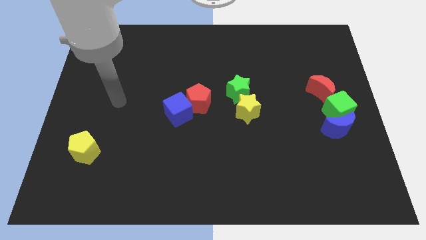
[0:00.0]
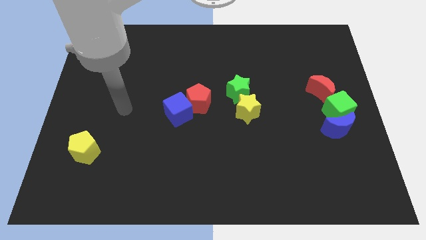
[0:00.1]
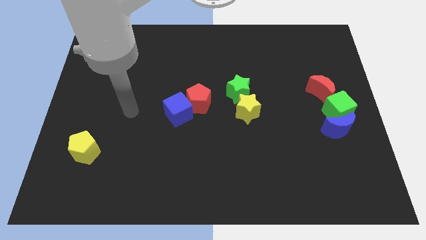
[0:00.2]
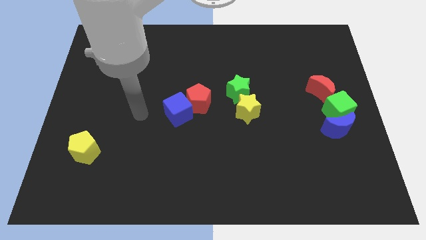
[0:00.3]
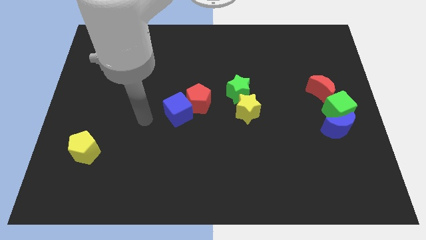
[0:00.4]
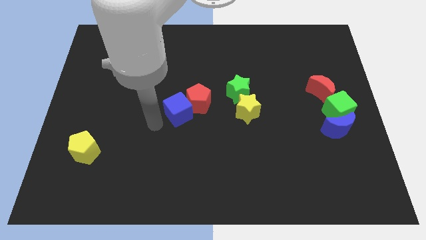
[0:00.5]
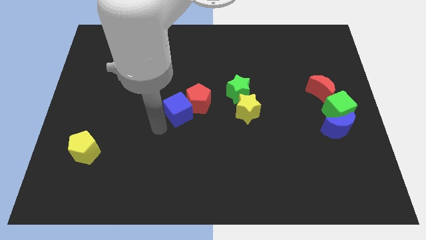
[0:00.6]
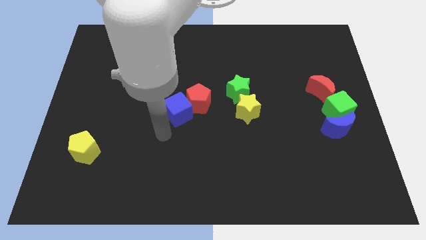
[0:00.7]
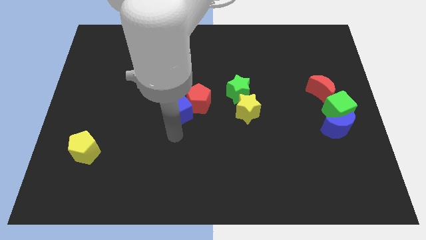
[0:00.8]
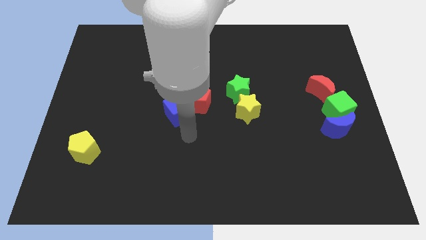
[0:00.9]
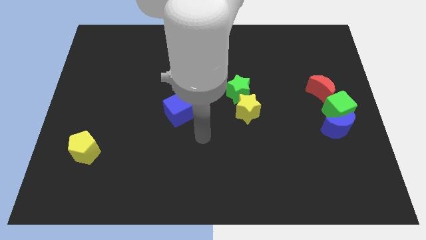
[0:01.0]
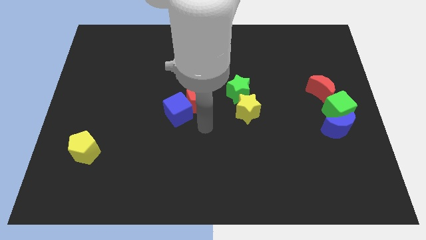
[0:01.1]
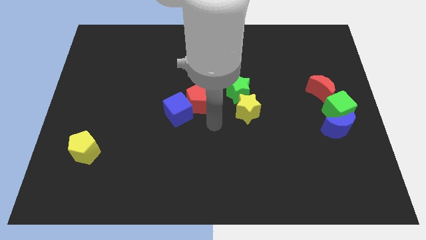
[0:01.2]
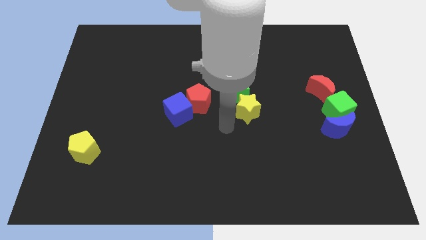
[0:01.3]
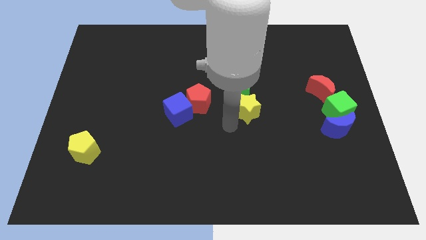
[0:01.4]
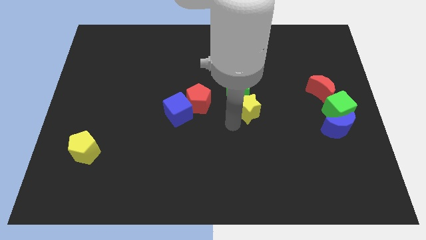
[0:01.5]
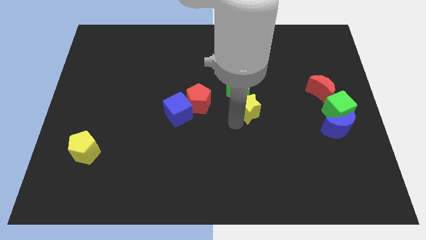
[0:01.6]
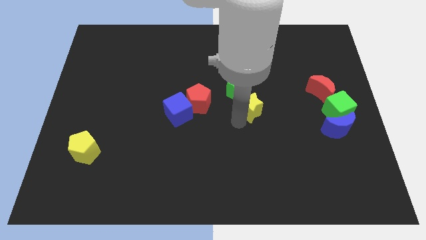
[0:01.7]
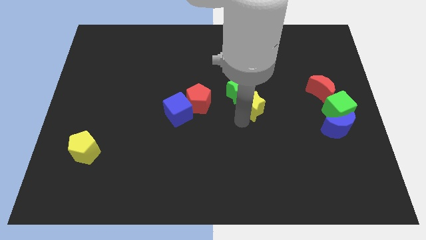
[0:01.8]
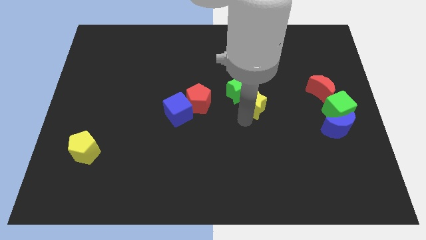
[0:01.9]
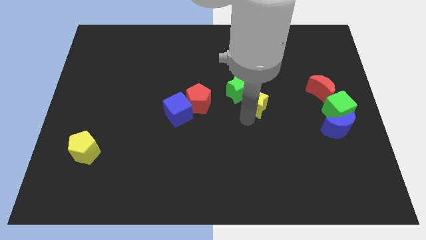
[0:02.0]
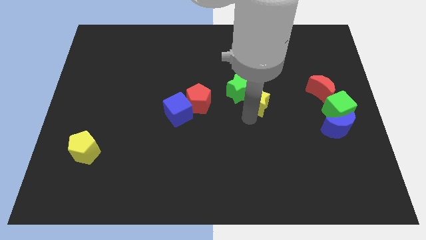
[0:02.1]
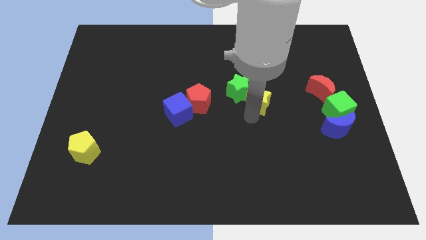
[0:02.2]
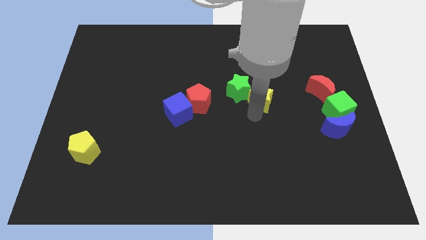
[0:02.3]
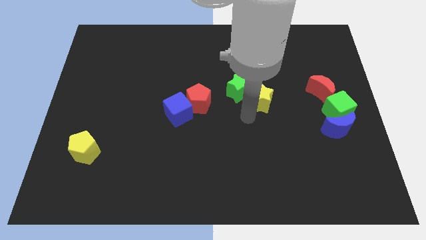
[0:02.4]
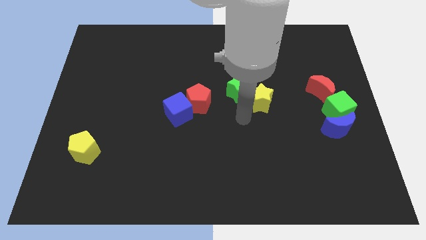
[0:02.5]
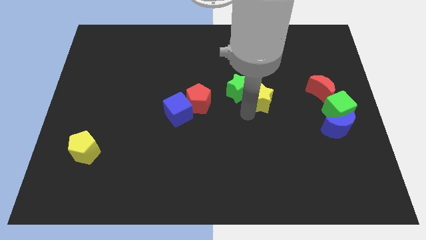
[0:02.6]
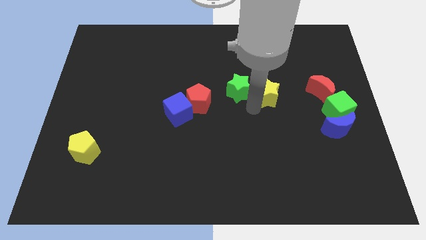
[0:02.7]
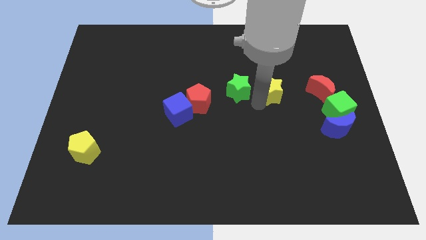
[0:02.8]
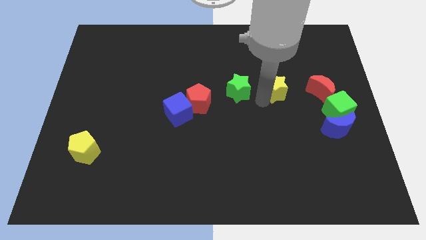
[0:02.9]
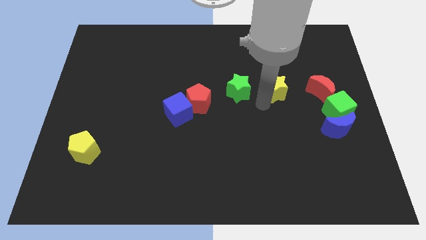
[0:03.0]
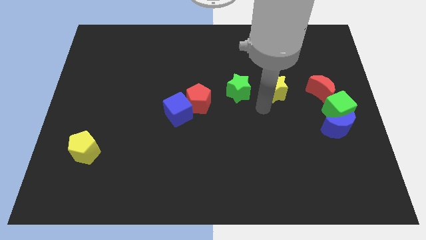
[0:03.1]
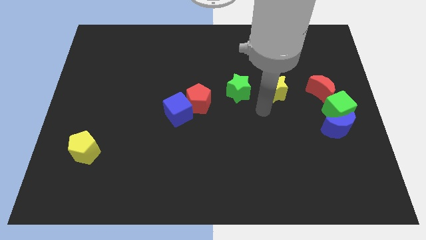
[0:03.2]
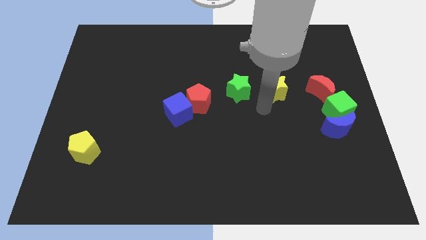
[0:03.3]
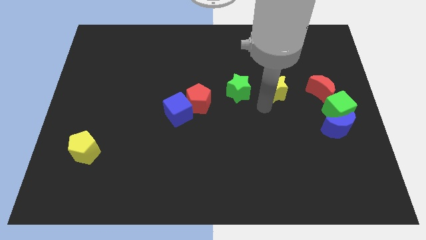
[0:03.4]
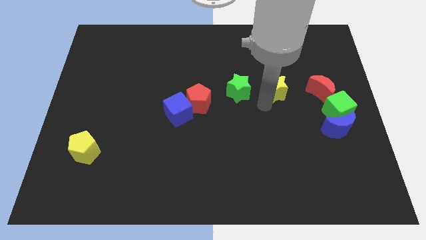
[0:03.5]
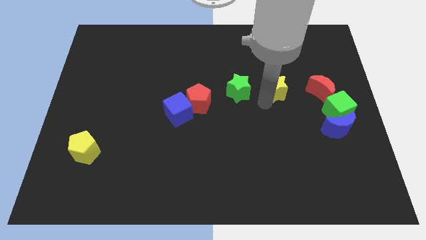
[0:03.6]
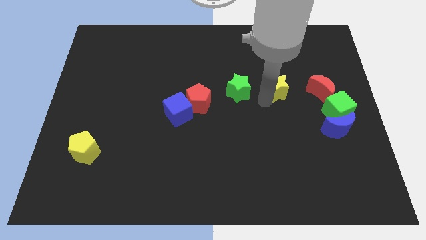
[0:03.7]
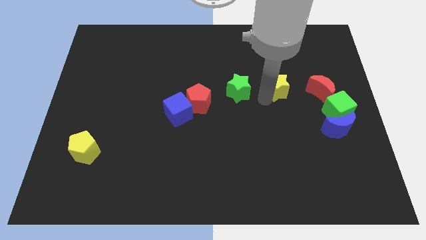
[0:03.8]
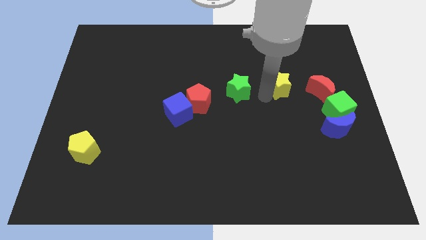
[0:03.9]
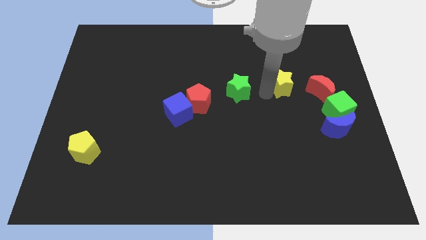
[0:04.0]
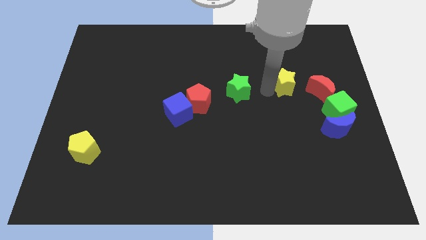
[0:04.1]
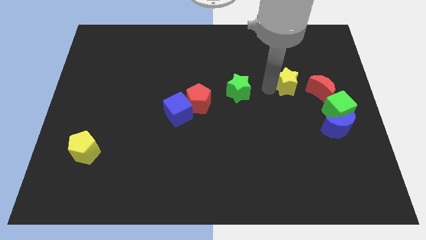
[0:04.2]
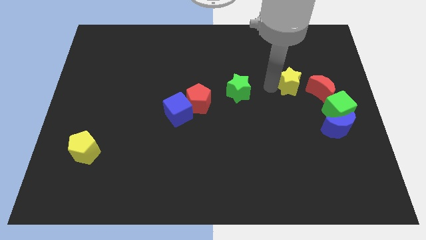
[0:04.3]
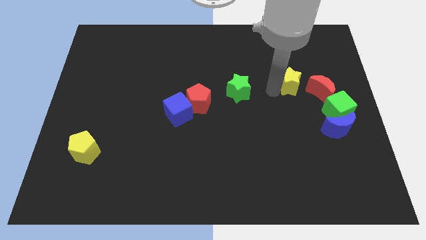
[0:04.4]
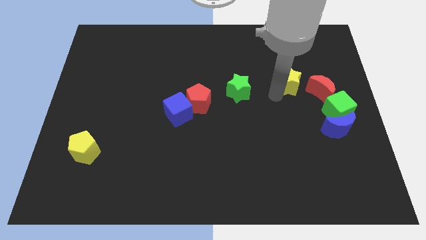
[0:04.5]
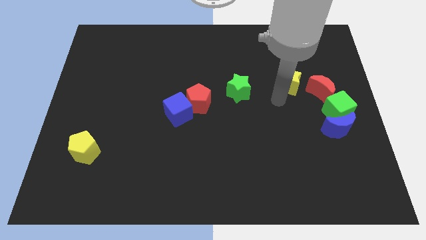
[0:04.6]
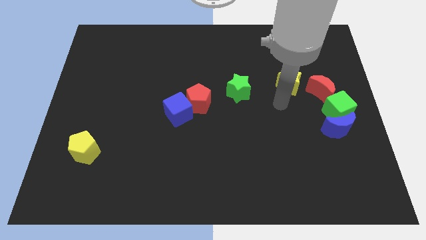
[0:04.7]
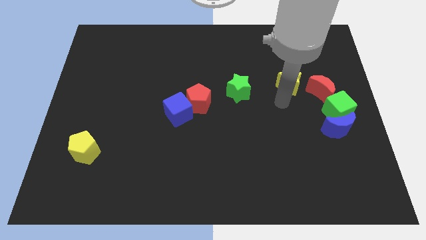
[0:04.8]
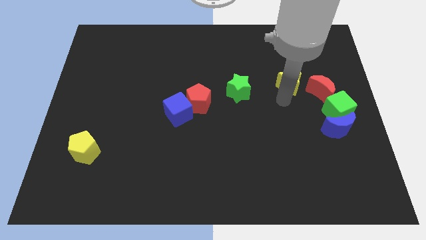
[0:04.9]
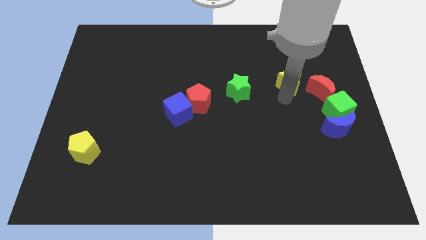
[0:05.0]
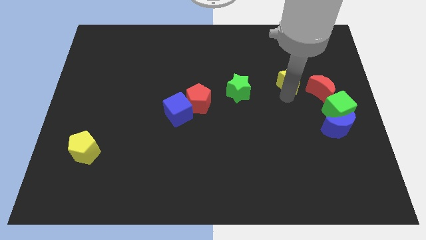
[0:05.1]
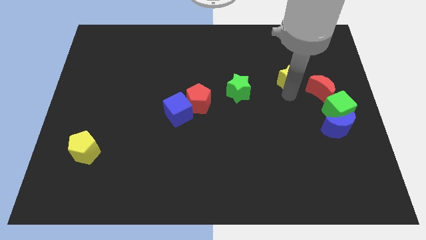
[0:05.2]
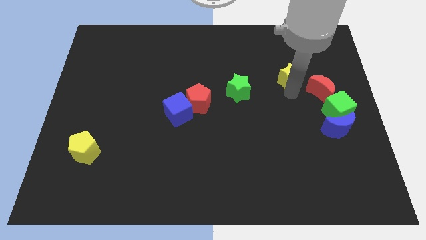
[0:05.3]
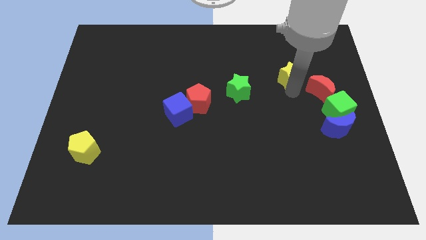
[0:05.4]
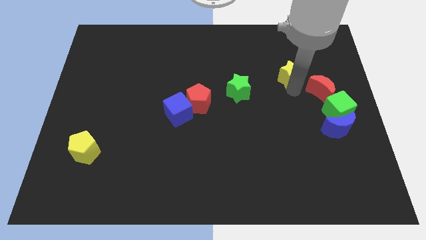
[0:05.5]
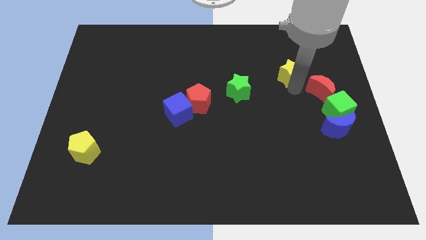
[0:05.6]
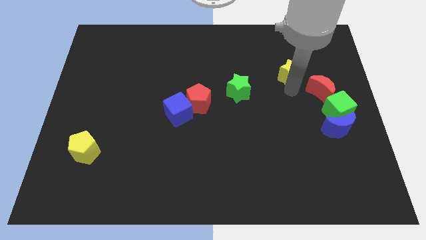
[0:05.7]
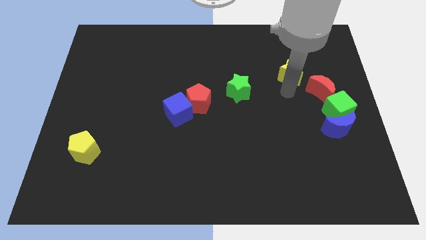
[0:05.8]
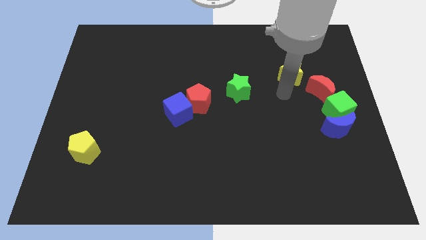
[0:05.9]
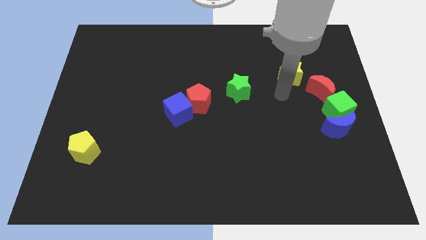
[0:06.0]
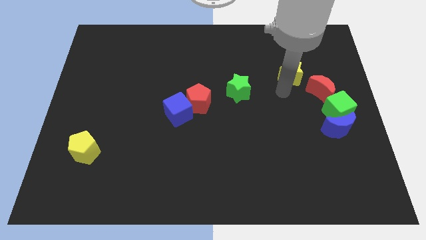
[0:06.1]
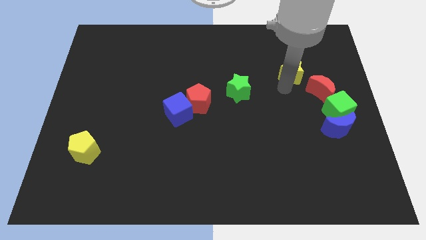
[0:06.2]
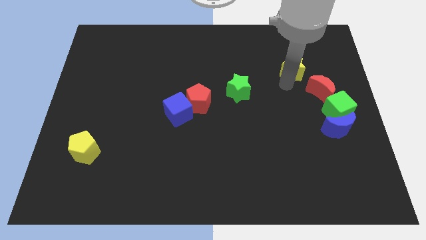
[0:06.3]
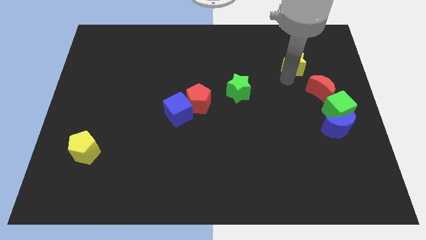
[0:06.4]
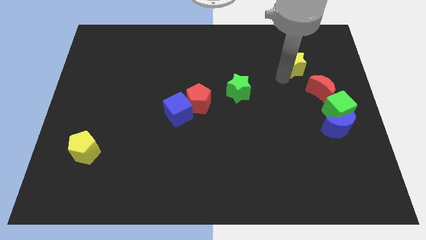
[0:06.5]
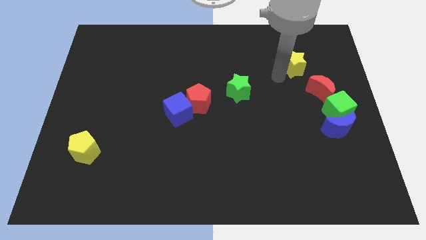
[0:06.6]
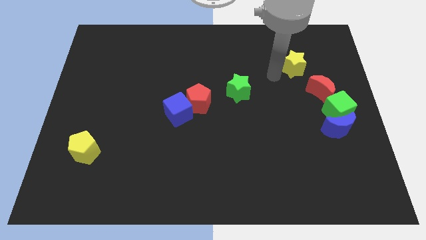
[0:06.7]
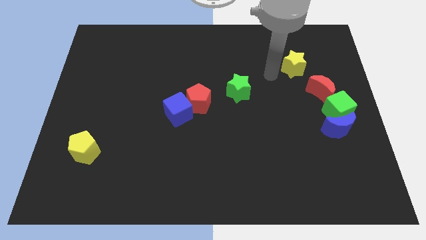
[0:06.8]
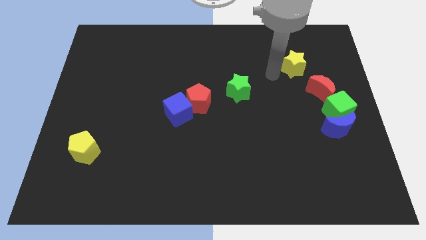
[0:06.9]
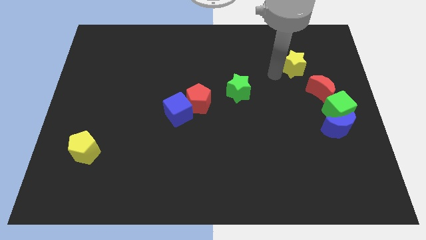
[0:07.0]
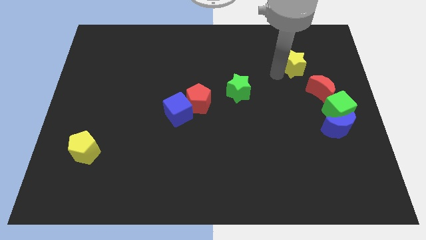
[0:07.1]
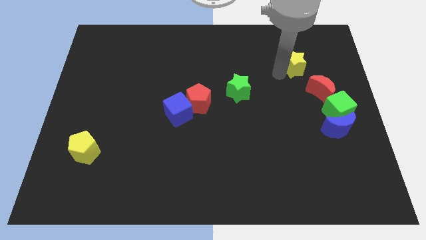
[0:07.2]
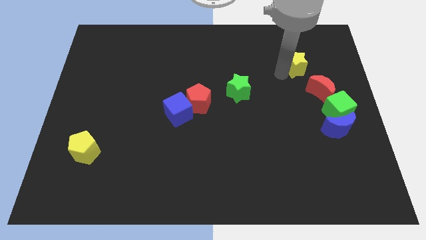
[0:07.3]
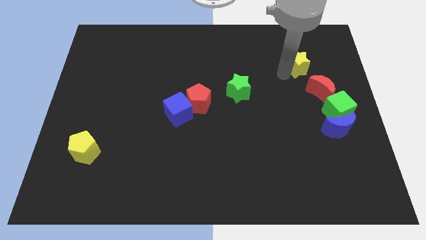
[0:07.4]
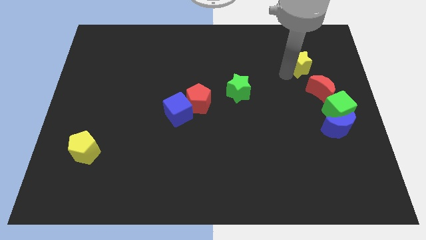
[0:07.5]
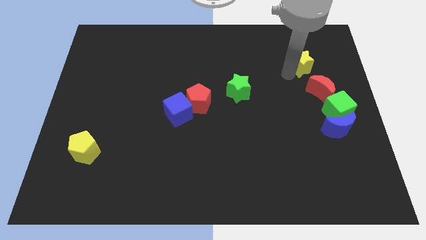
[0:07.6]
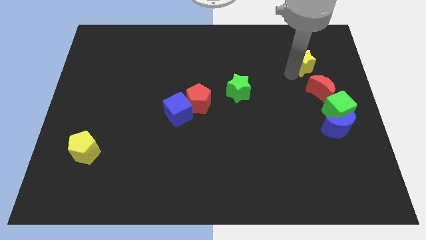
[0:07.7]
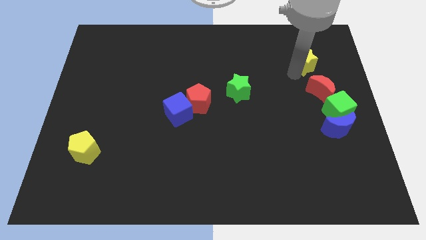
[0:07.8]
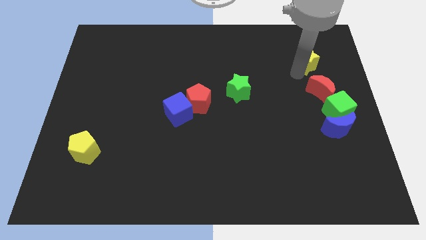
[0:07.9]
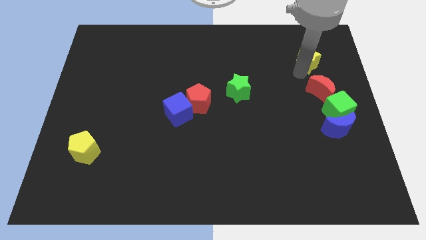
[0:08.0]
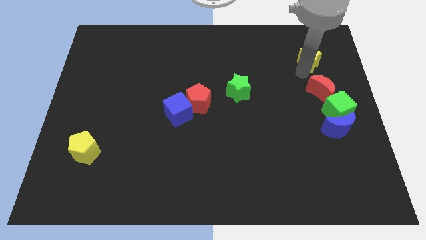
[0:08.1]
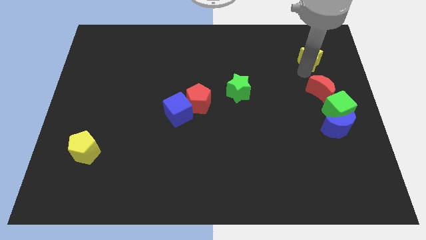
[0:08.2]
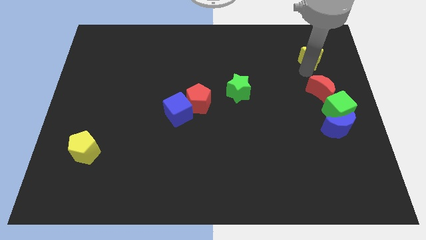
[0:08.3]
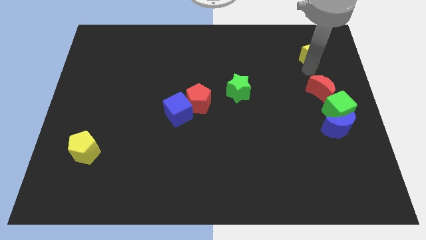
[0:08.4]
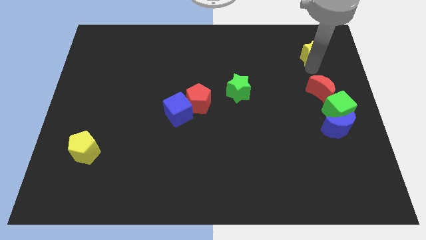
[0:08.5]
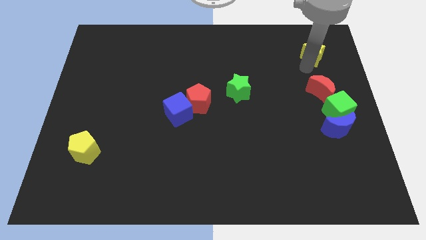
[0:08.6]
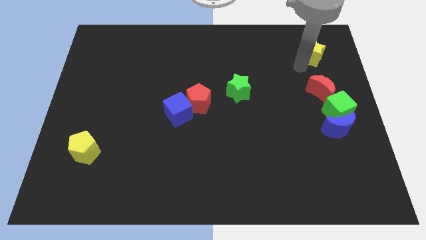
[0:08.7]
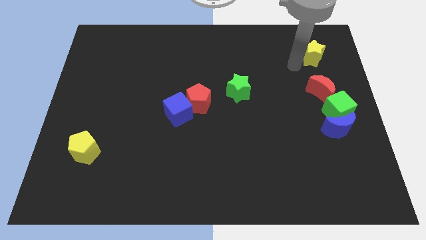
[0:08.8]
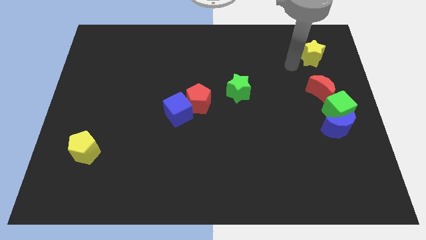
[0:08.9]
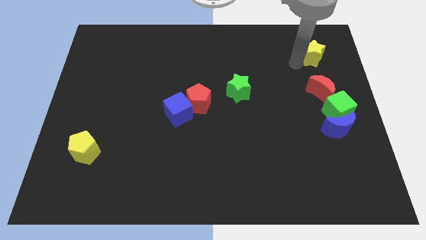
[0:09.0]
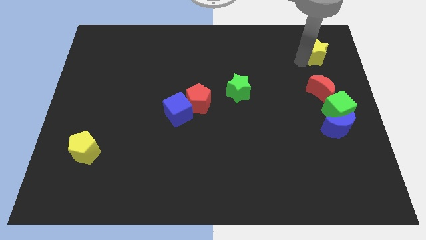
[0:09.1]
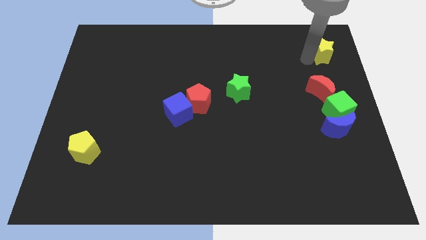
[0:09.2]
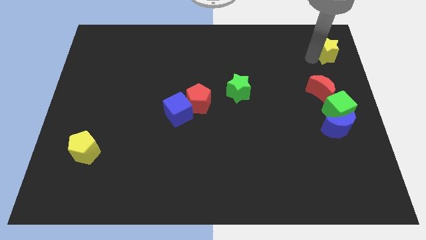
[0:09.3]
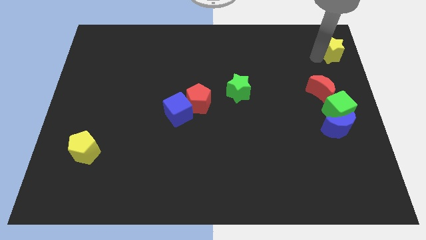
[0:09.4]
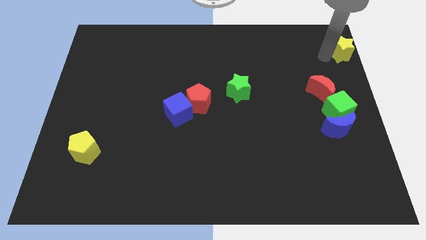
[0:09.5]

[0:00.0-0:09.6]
put the yellow star to the top right
